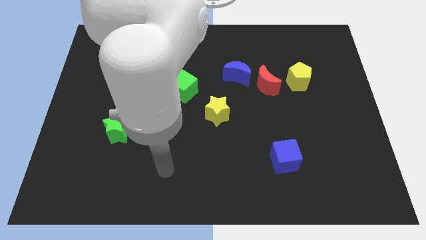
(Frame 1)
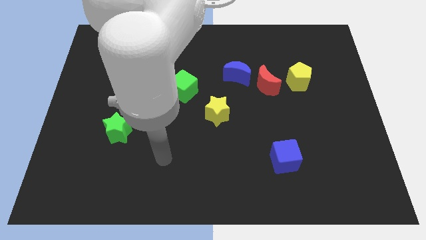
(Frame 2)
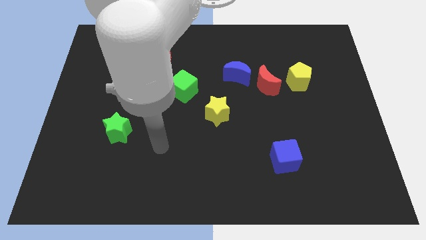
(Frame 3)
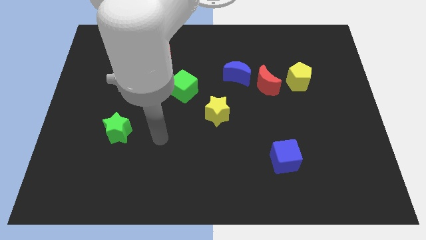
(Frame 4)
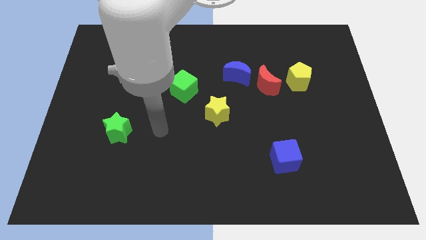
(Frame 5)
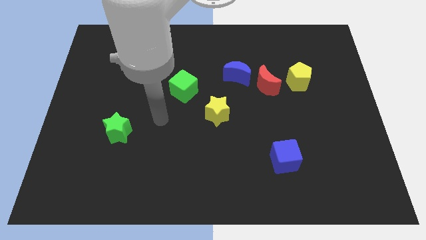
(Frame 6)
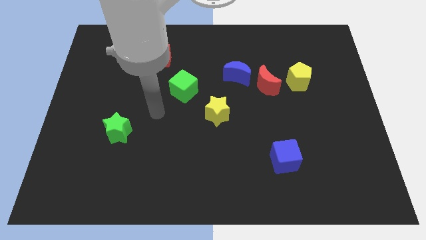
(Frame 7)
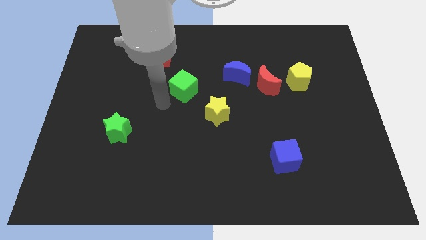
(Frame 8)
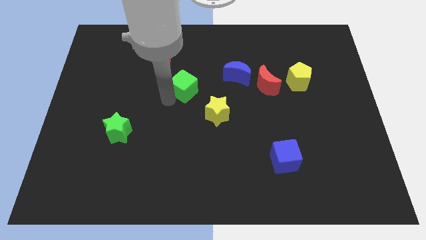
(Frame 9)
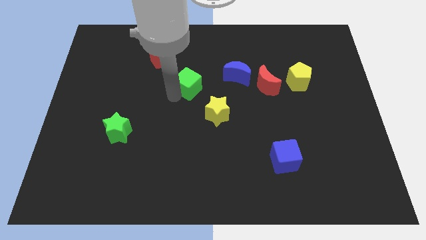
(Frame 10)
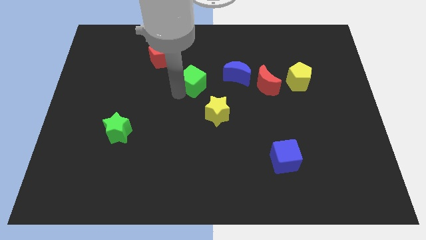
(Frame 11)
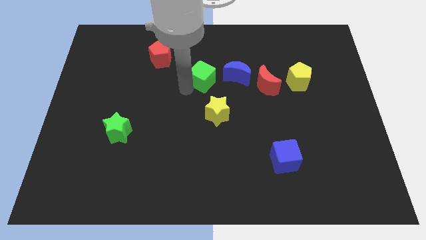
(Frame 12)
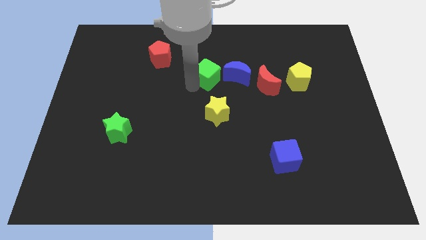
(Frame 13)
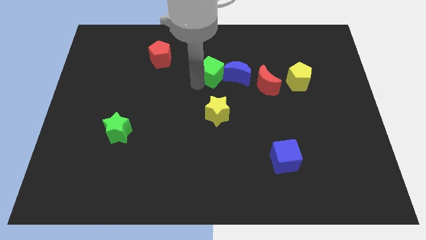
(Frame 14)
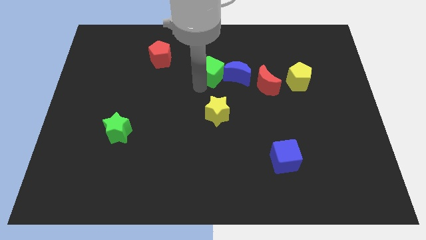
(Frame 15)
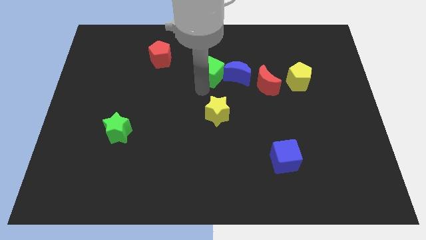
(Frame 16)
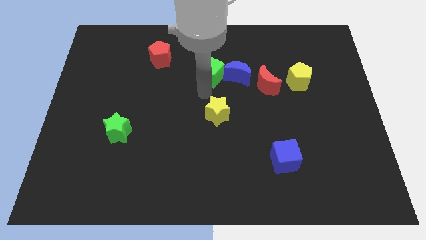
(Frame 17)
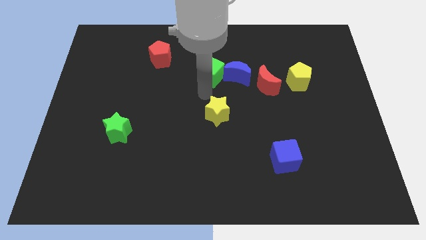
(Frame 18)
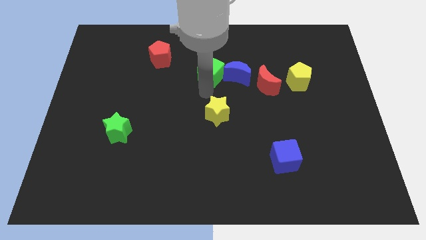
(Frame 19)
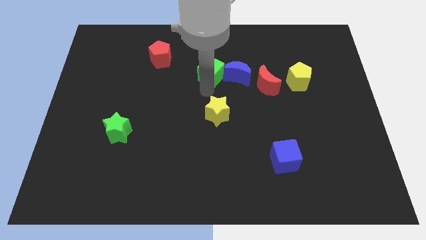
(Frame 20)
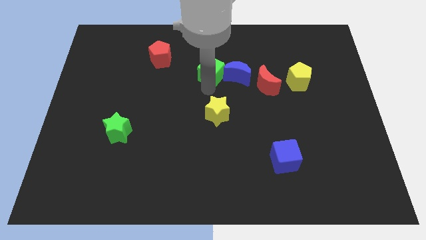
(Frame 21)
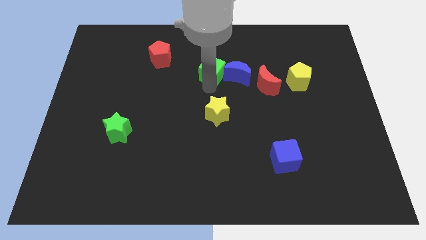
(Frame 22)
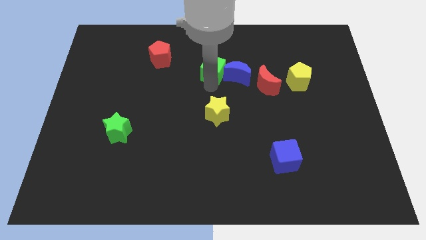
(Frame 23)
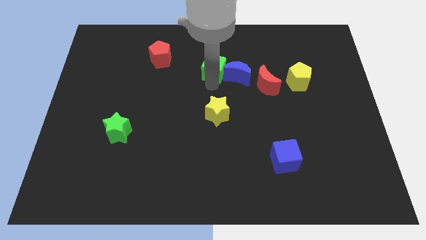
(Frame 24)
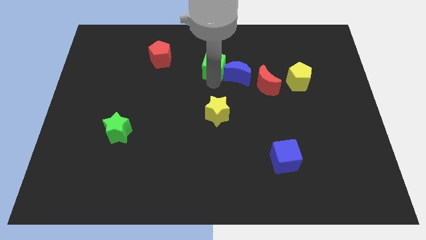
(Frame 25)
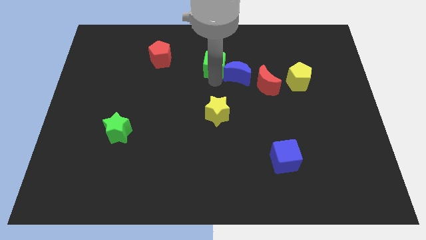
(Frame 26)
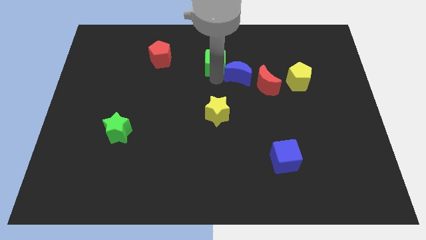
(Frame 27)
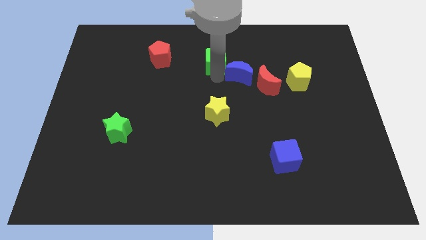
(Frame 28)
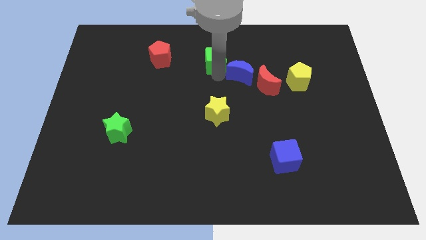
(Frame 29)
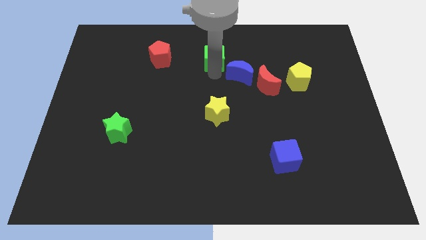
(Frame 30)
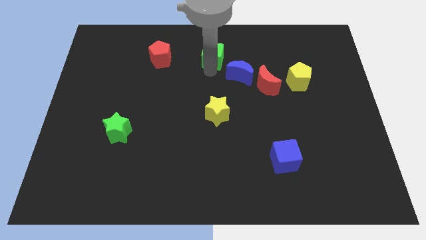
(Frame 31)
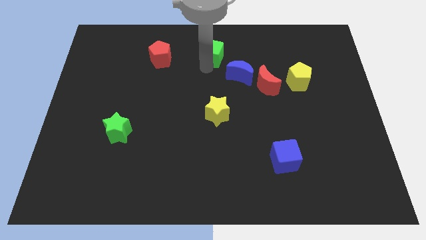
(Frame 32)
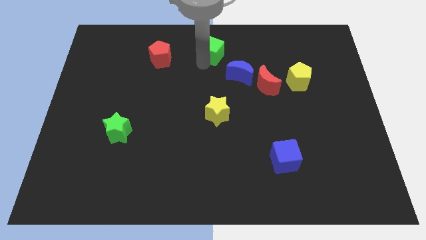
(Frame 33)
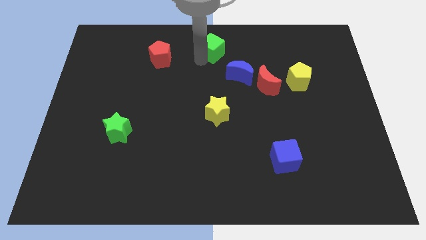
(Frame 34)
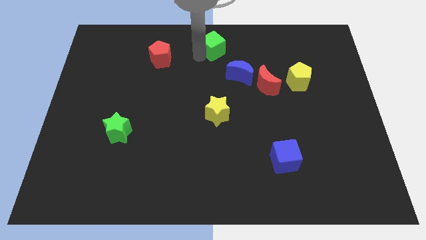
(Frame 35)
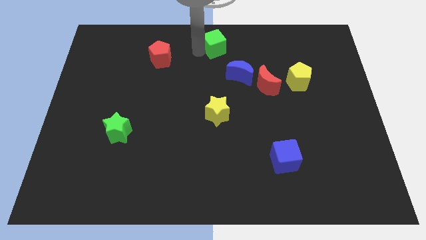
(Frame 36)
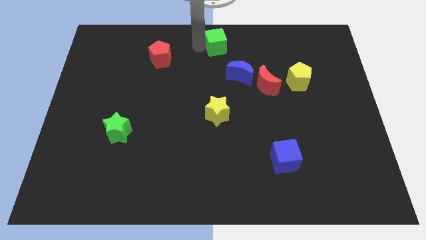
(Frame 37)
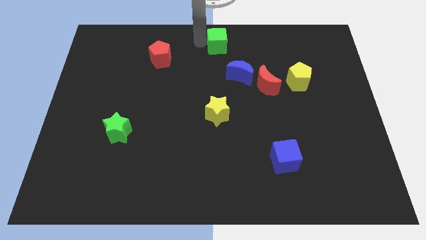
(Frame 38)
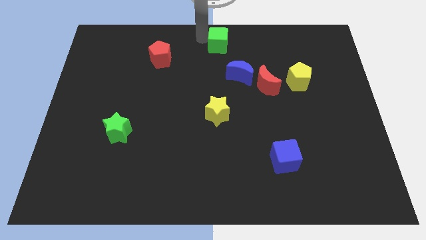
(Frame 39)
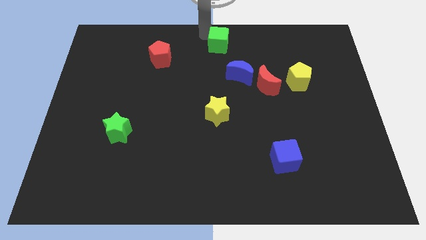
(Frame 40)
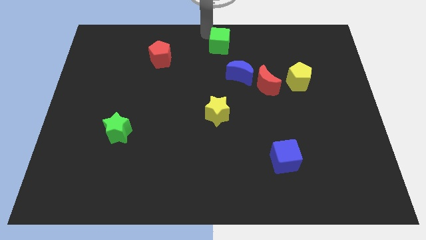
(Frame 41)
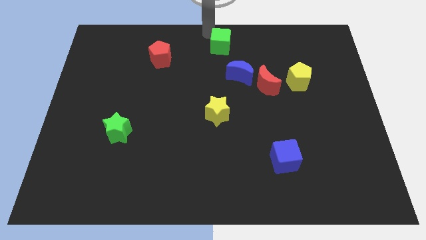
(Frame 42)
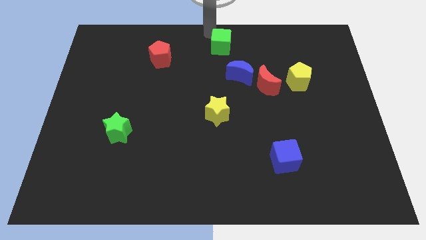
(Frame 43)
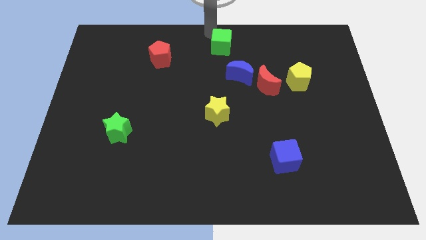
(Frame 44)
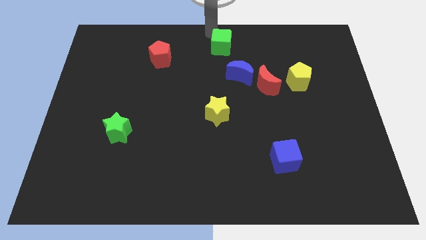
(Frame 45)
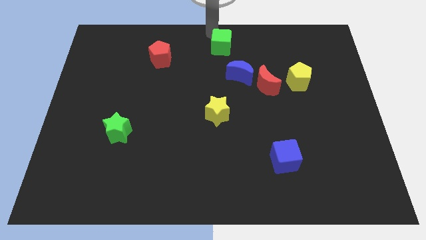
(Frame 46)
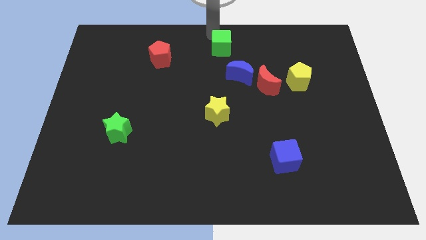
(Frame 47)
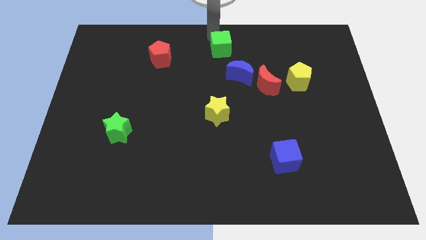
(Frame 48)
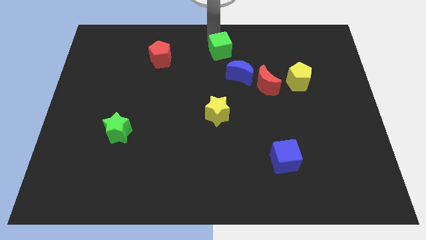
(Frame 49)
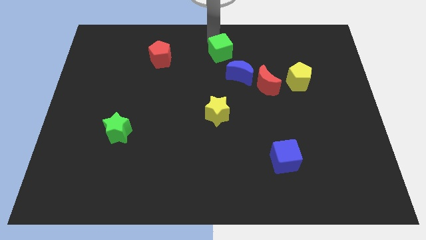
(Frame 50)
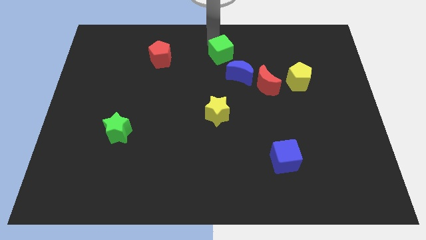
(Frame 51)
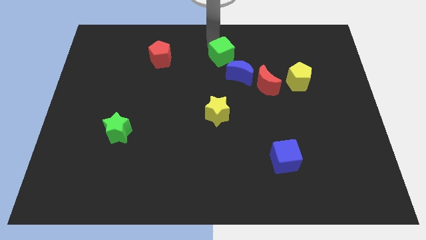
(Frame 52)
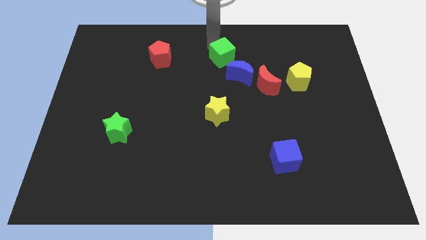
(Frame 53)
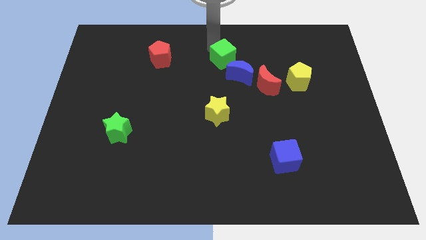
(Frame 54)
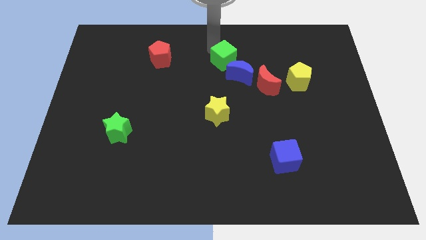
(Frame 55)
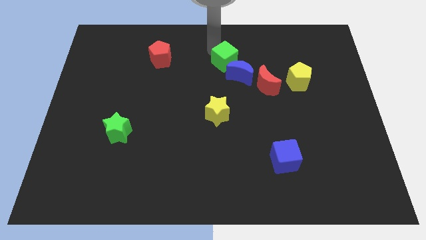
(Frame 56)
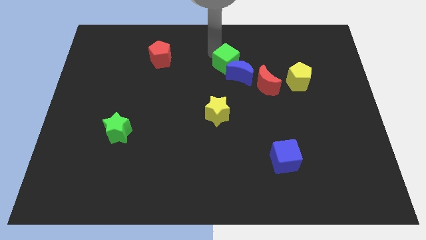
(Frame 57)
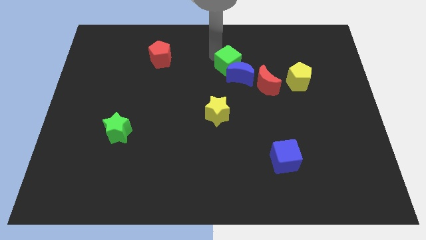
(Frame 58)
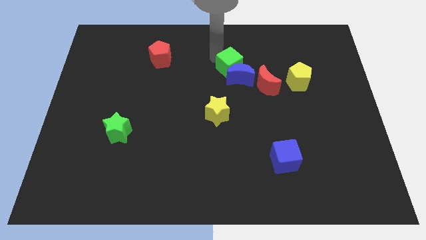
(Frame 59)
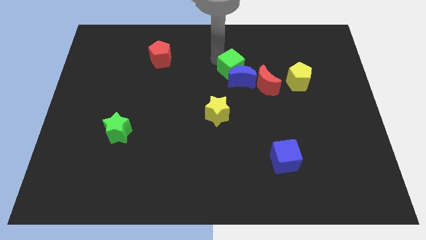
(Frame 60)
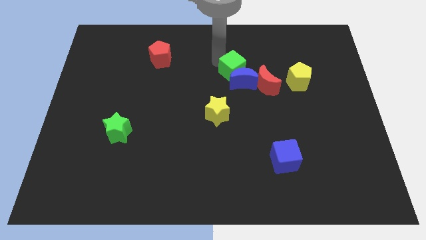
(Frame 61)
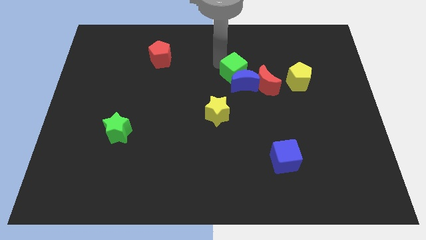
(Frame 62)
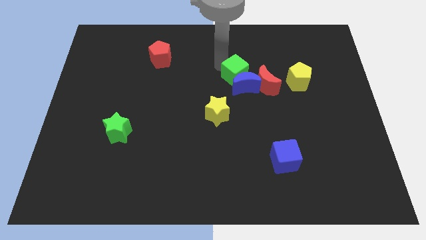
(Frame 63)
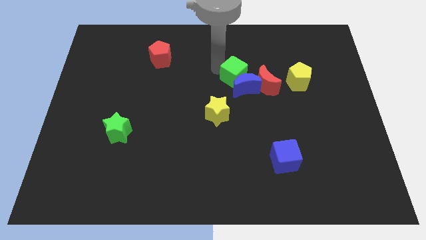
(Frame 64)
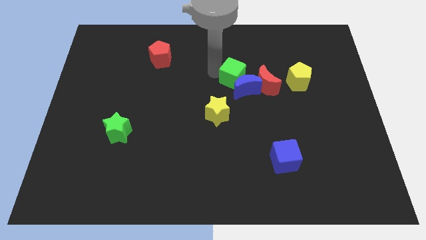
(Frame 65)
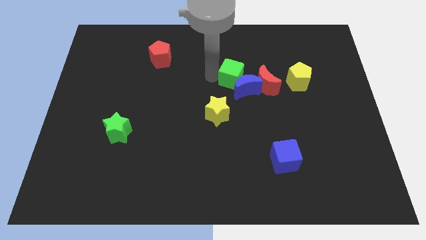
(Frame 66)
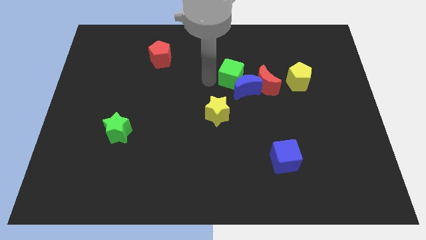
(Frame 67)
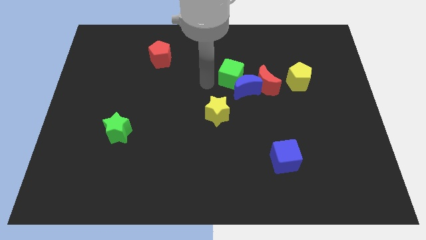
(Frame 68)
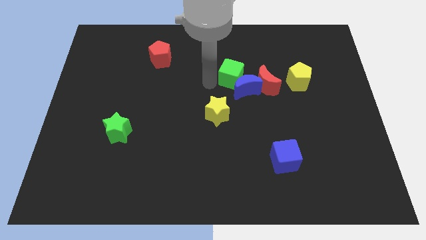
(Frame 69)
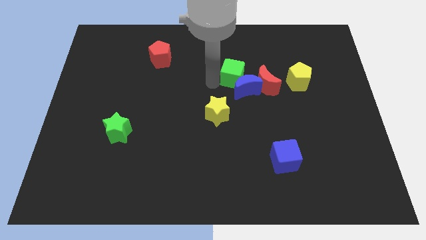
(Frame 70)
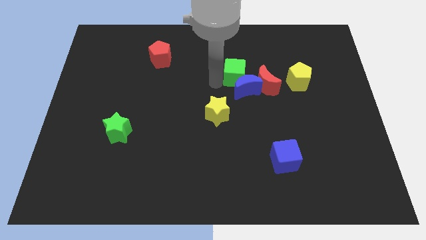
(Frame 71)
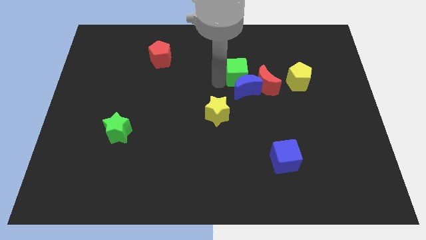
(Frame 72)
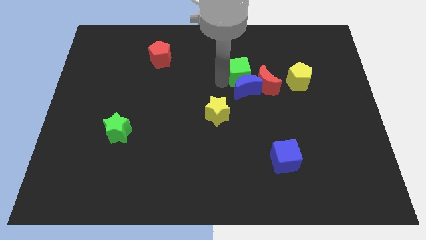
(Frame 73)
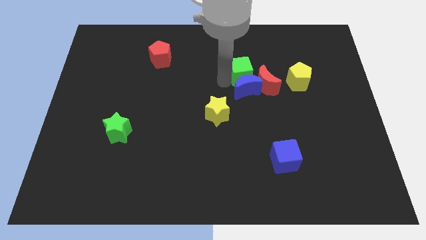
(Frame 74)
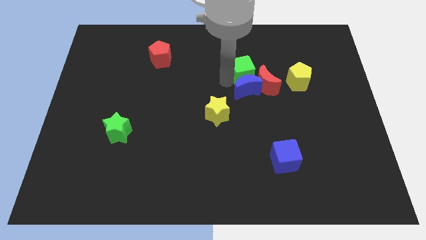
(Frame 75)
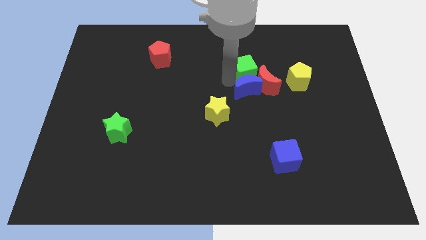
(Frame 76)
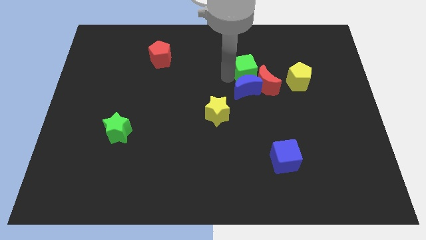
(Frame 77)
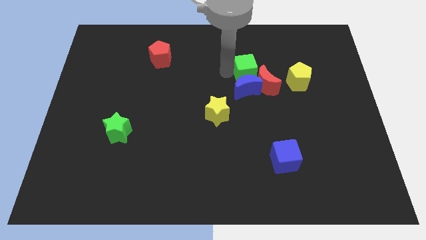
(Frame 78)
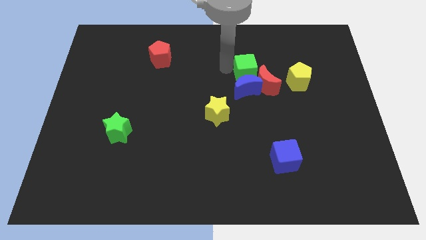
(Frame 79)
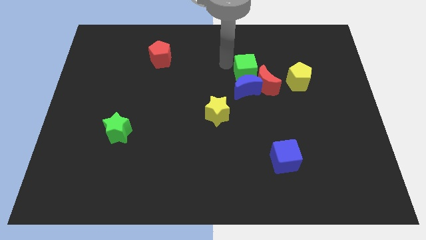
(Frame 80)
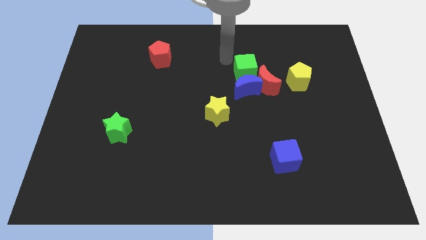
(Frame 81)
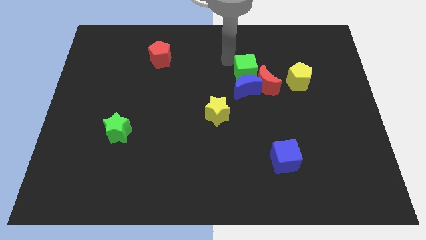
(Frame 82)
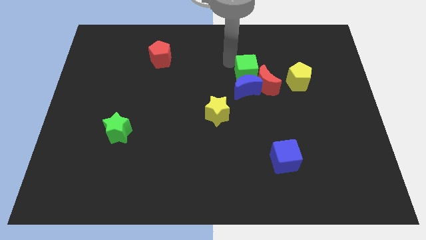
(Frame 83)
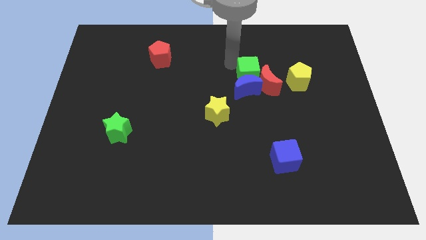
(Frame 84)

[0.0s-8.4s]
move the green cube to the red moon
